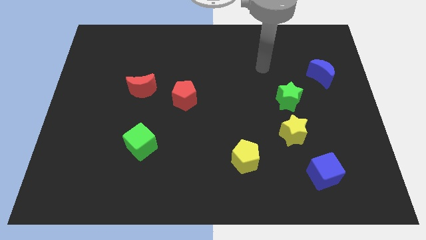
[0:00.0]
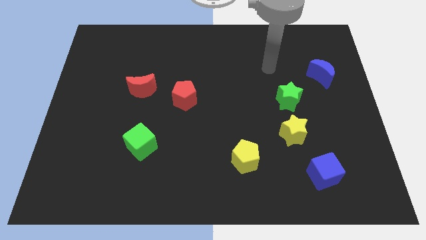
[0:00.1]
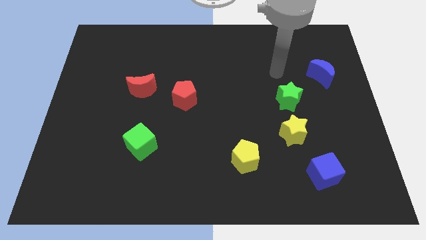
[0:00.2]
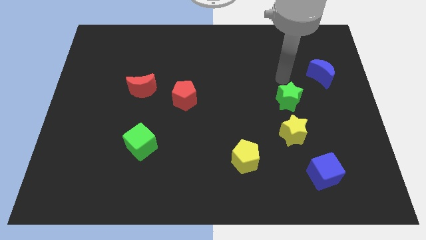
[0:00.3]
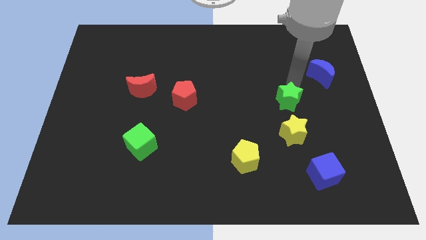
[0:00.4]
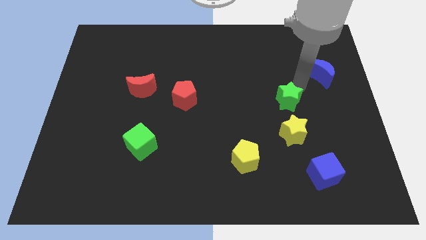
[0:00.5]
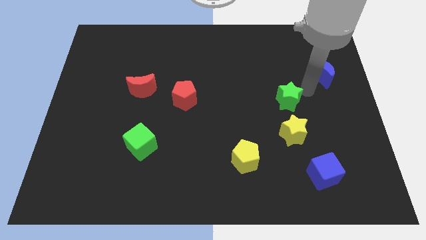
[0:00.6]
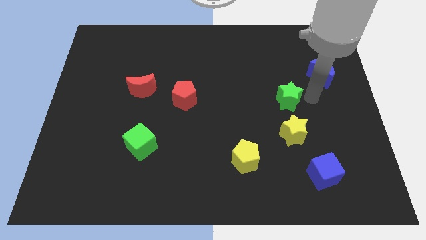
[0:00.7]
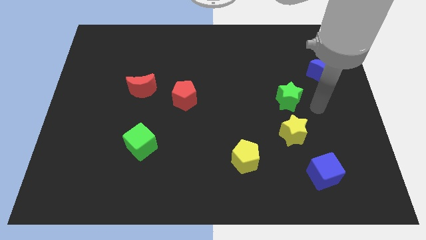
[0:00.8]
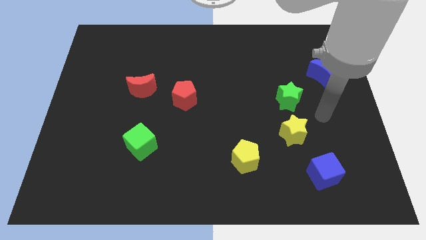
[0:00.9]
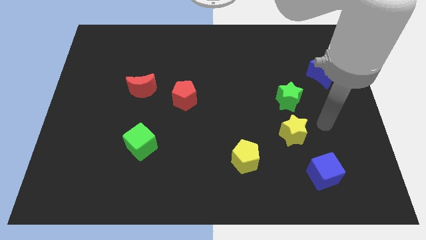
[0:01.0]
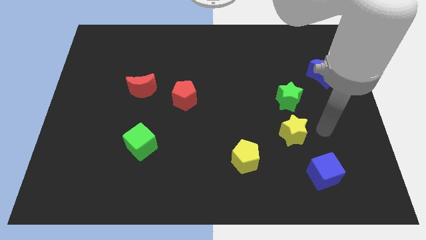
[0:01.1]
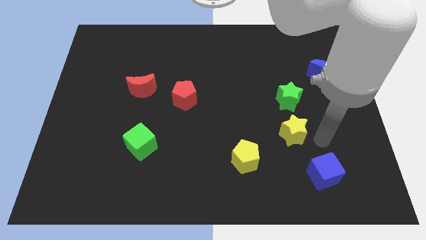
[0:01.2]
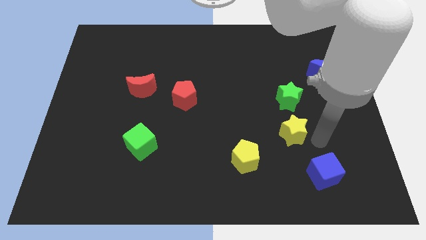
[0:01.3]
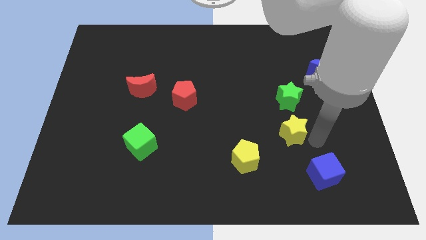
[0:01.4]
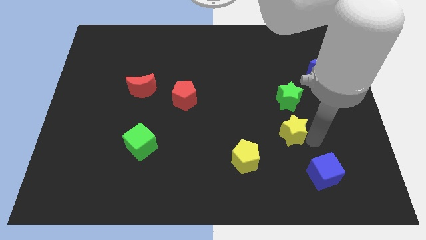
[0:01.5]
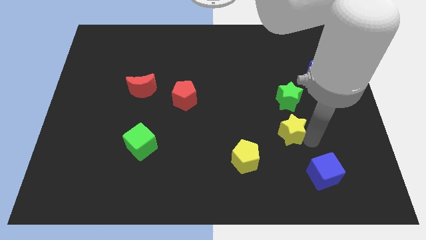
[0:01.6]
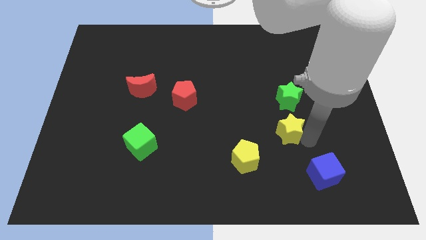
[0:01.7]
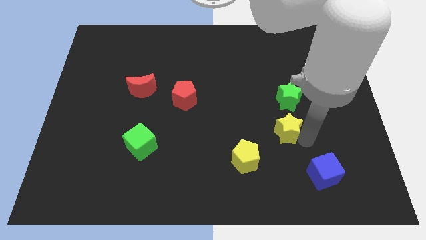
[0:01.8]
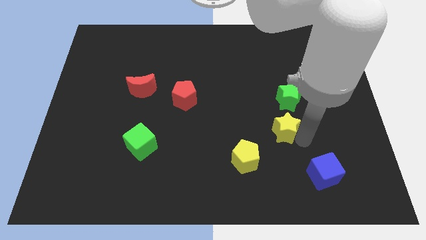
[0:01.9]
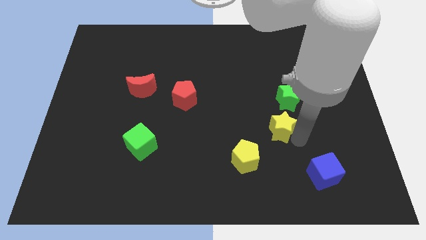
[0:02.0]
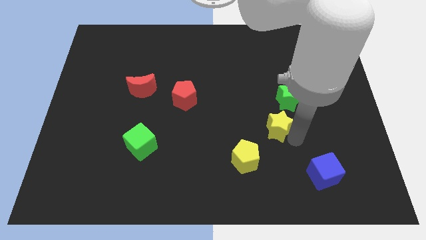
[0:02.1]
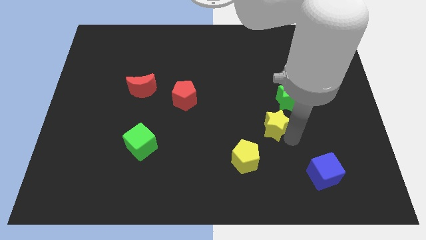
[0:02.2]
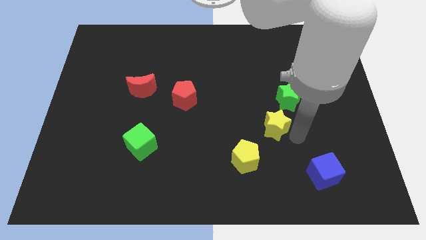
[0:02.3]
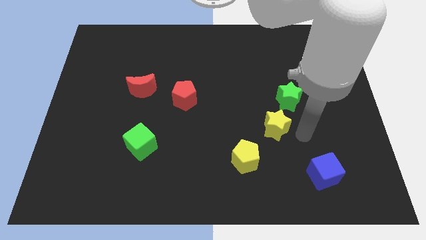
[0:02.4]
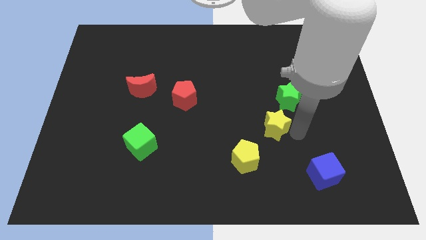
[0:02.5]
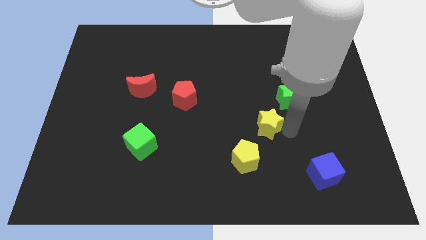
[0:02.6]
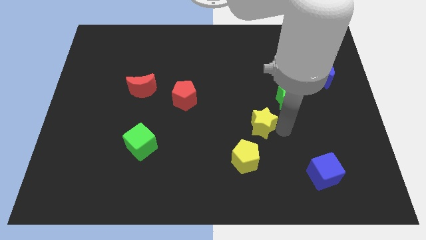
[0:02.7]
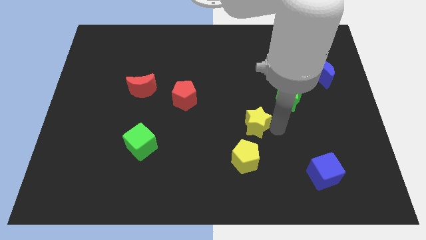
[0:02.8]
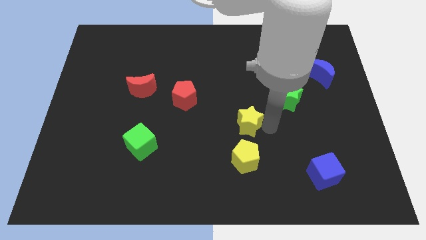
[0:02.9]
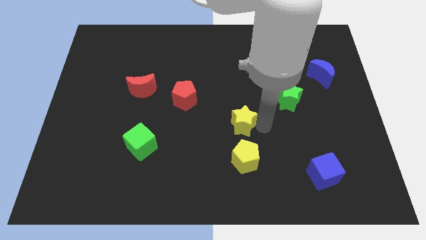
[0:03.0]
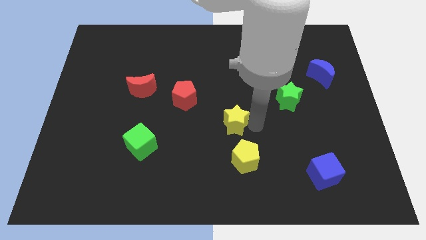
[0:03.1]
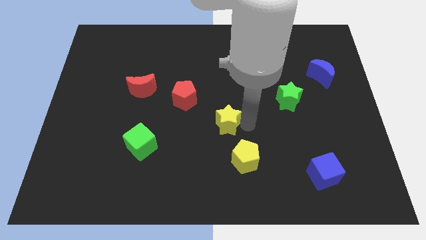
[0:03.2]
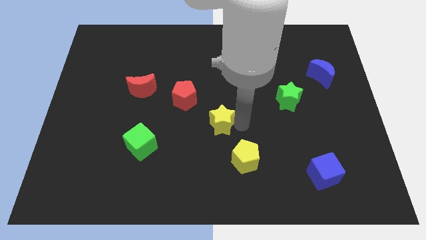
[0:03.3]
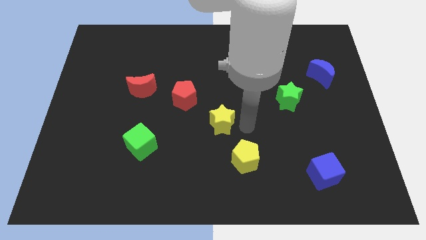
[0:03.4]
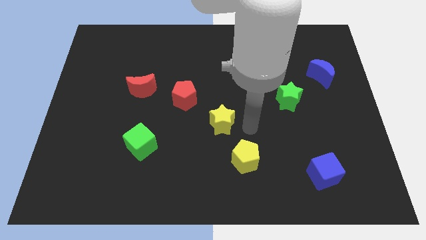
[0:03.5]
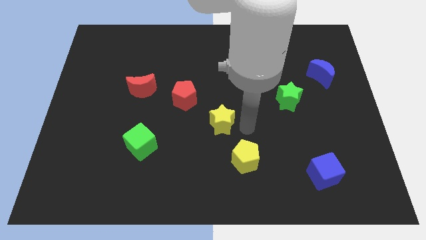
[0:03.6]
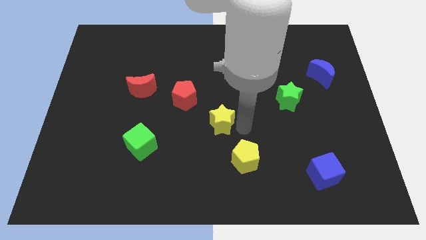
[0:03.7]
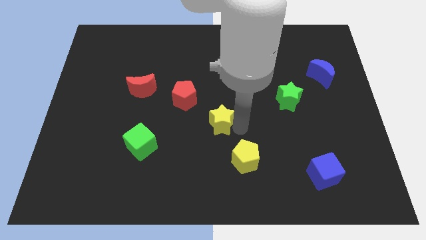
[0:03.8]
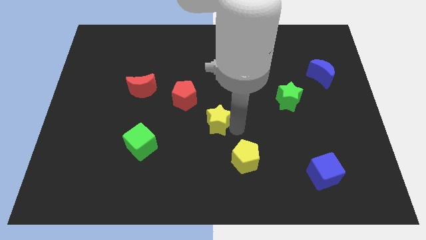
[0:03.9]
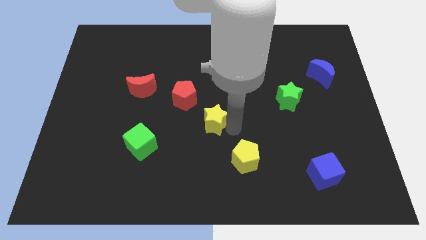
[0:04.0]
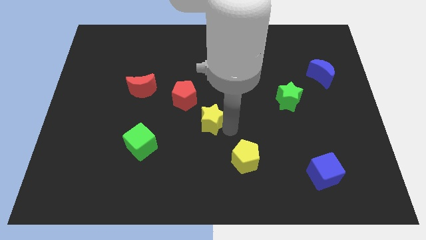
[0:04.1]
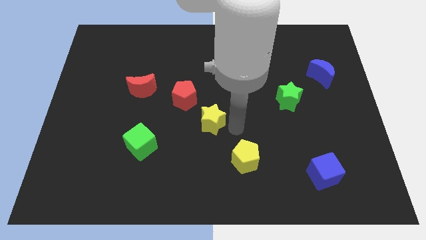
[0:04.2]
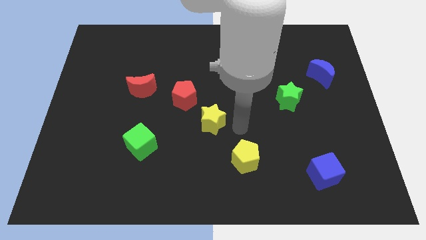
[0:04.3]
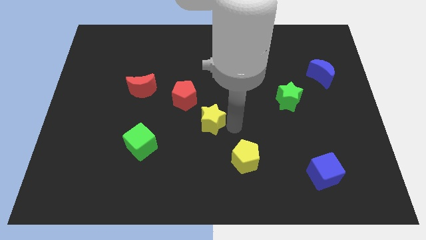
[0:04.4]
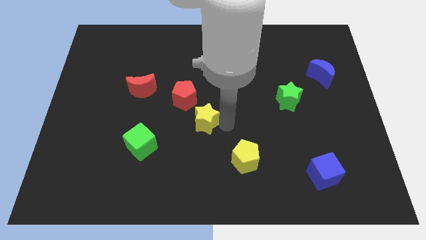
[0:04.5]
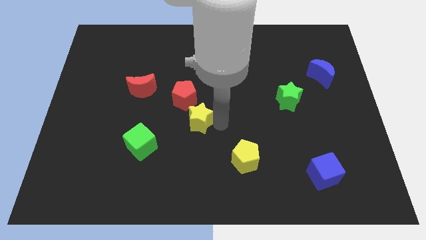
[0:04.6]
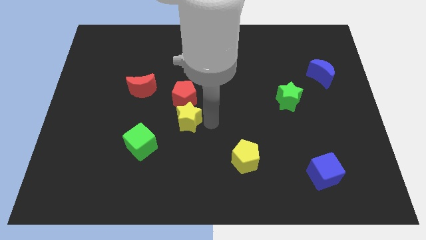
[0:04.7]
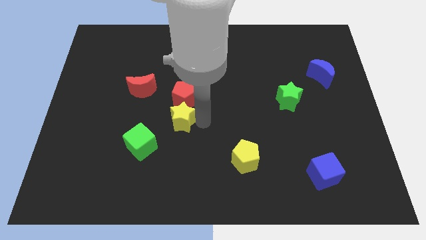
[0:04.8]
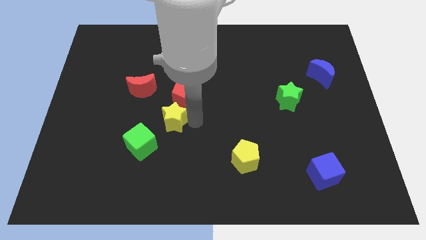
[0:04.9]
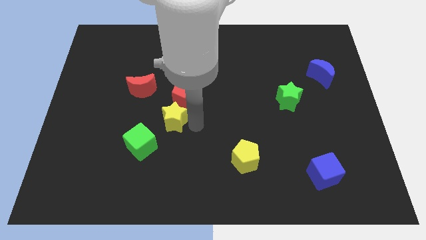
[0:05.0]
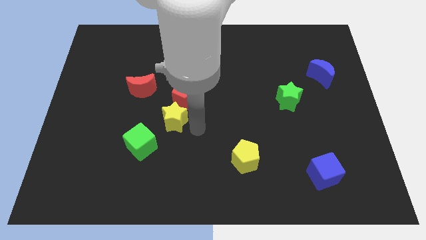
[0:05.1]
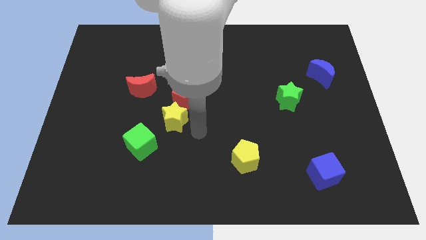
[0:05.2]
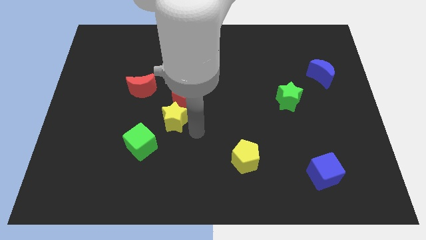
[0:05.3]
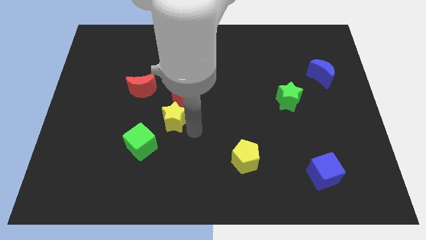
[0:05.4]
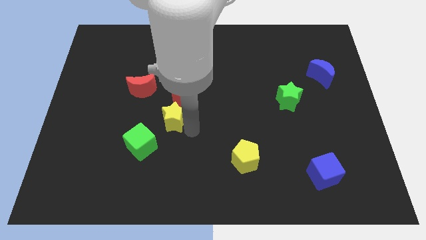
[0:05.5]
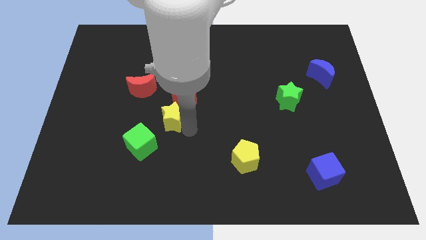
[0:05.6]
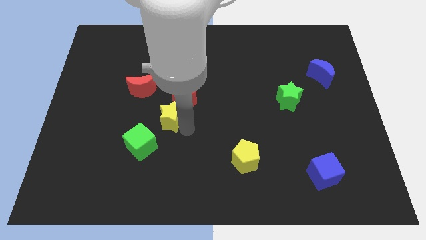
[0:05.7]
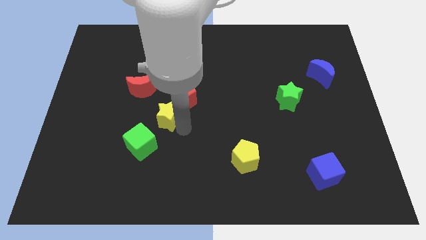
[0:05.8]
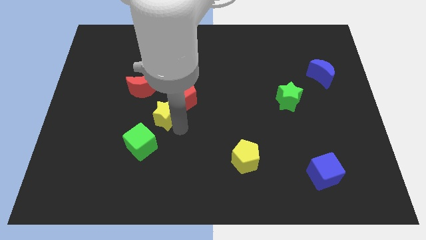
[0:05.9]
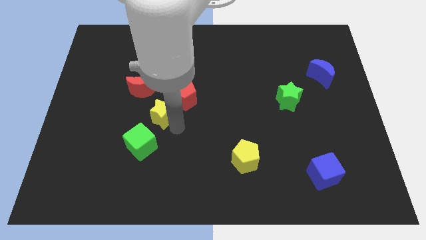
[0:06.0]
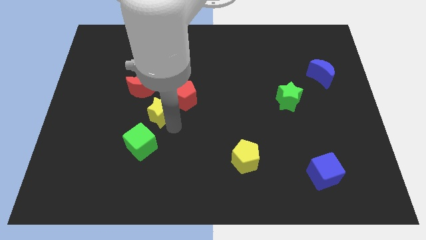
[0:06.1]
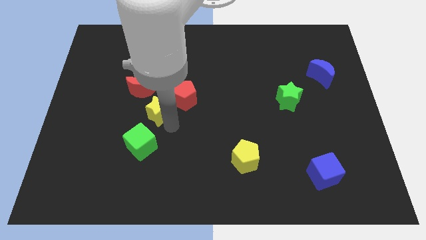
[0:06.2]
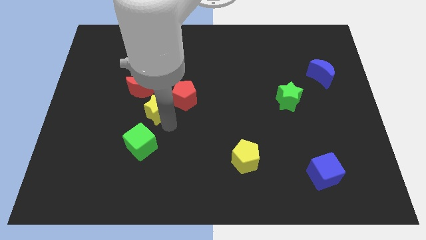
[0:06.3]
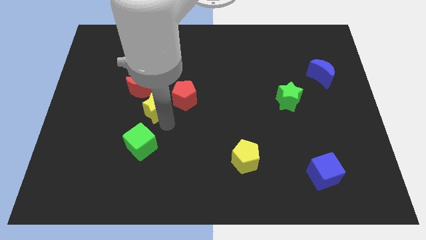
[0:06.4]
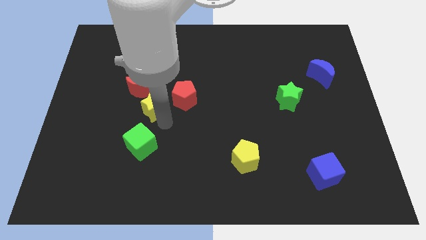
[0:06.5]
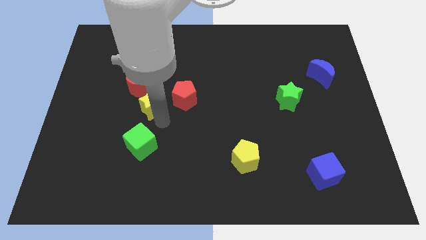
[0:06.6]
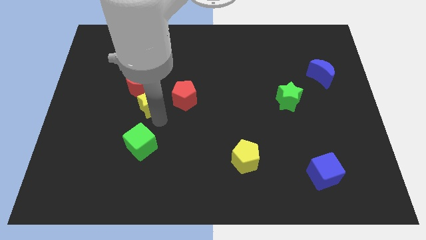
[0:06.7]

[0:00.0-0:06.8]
slide the yellow star towards the red moon

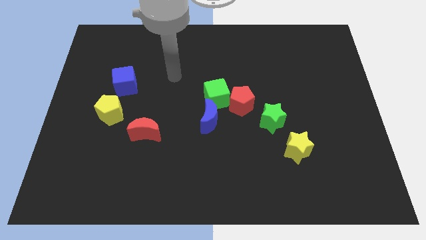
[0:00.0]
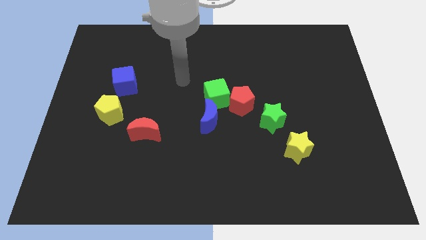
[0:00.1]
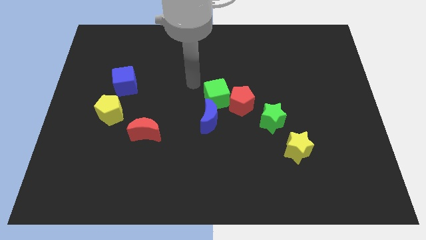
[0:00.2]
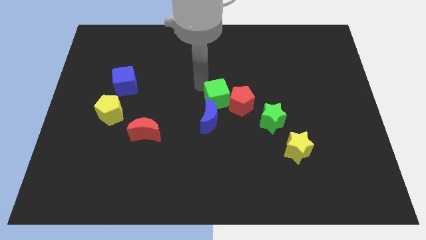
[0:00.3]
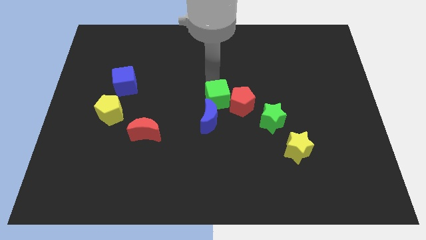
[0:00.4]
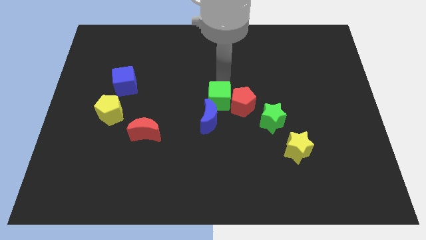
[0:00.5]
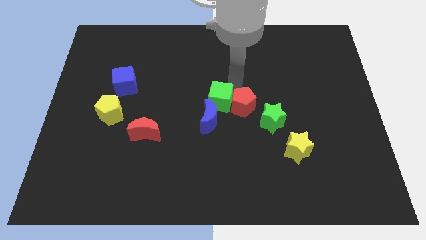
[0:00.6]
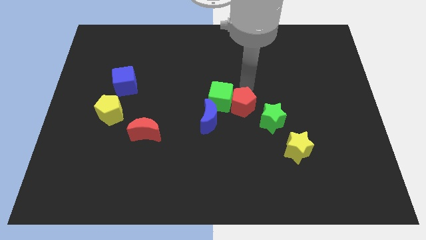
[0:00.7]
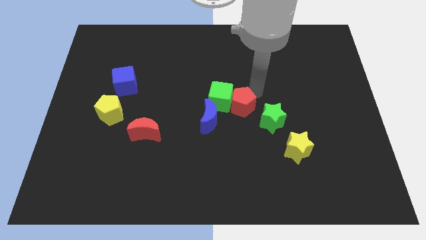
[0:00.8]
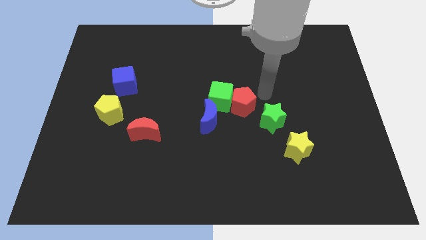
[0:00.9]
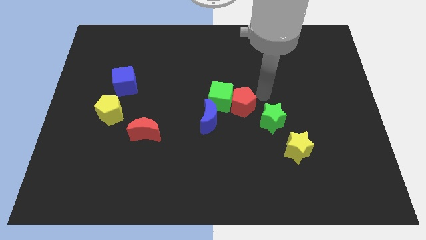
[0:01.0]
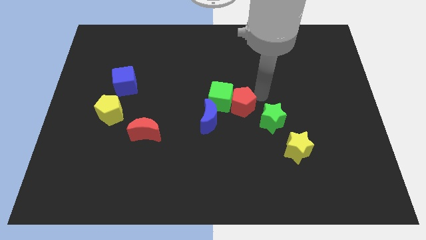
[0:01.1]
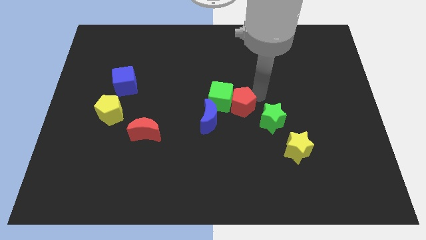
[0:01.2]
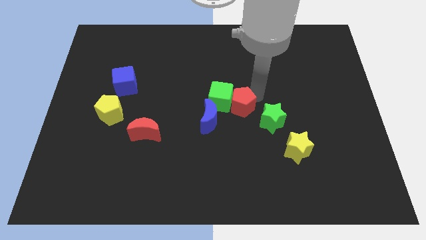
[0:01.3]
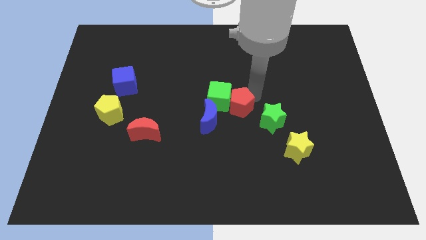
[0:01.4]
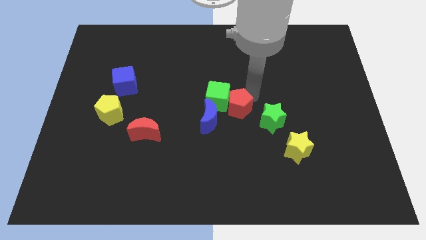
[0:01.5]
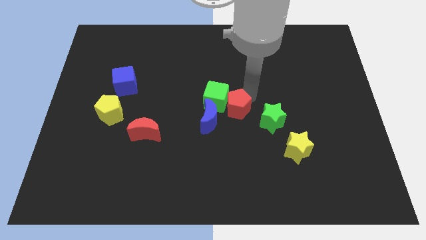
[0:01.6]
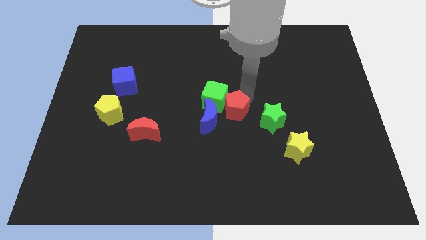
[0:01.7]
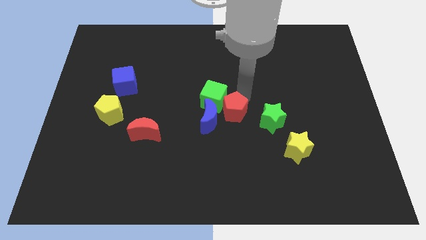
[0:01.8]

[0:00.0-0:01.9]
move the red pentagon close to the blue moon
